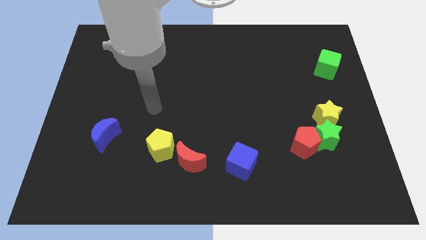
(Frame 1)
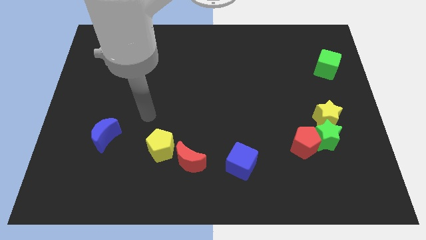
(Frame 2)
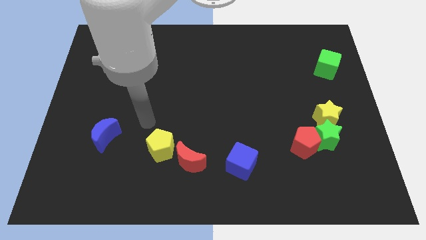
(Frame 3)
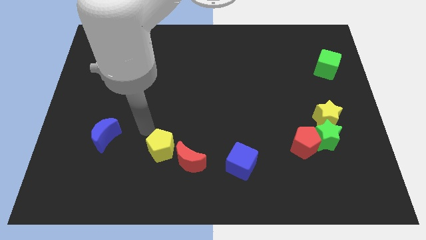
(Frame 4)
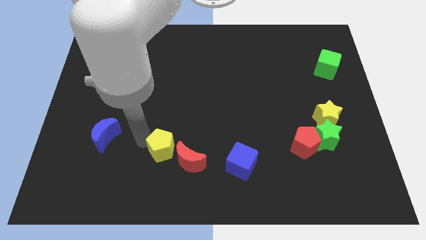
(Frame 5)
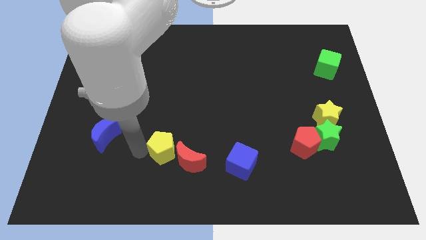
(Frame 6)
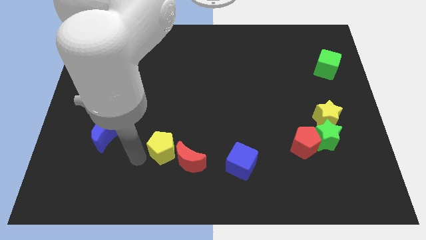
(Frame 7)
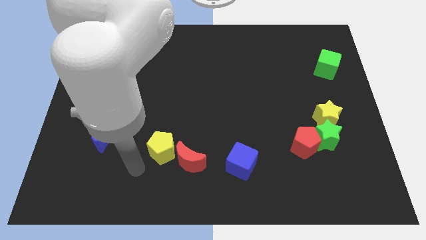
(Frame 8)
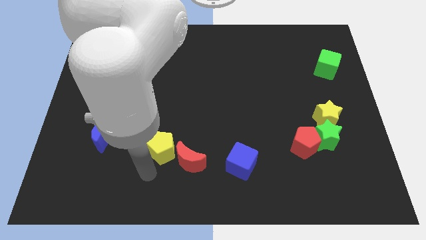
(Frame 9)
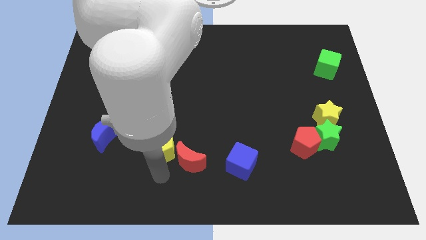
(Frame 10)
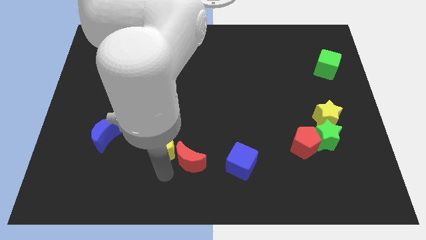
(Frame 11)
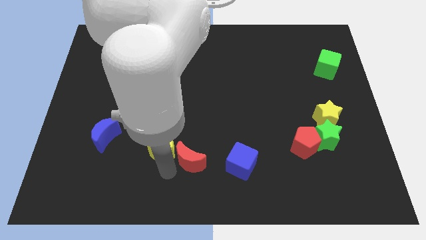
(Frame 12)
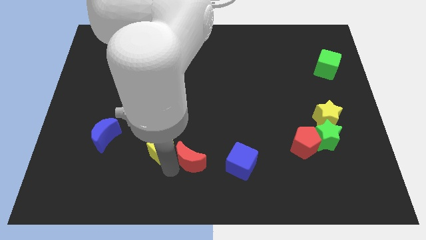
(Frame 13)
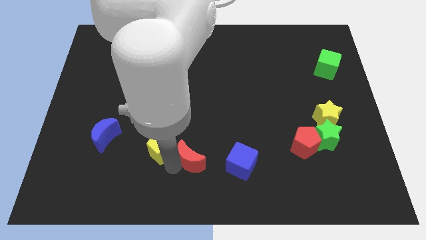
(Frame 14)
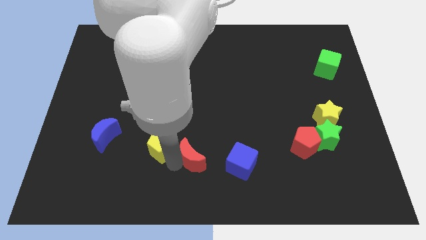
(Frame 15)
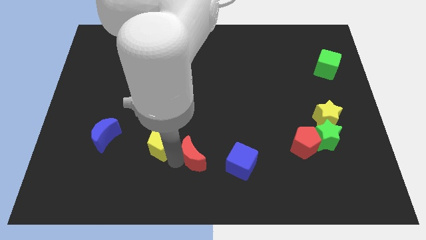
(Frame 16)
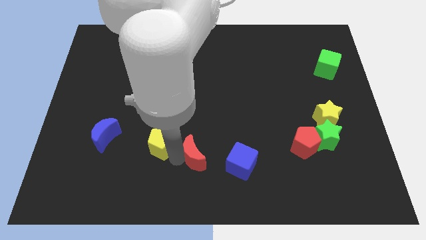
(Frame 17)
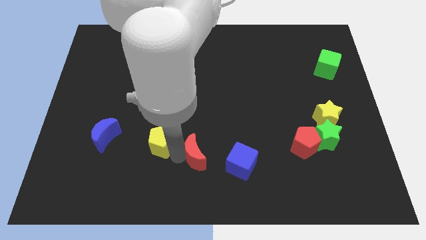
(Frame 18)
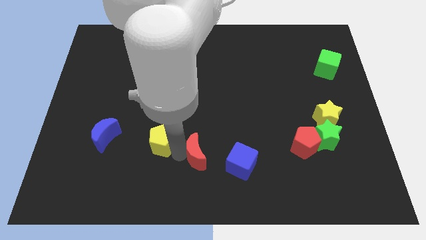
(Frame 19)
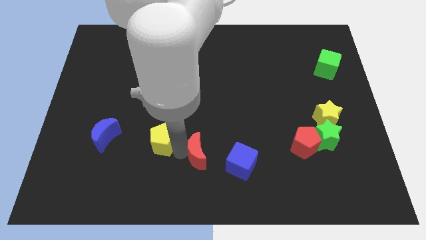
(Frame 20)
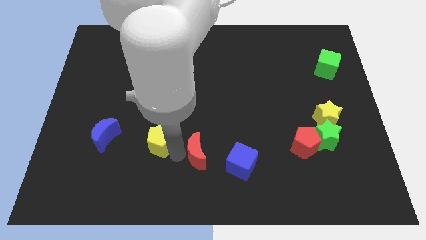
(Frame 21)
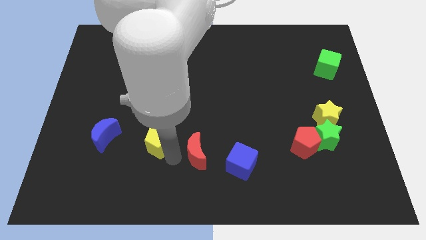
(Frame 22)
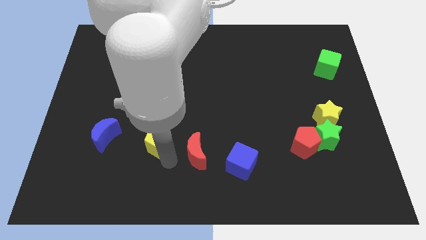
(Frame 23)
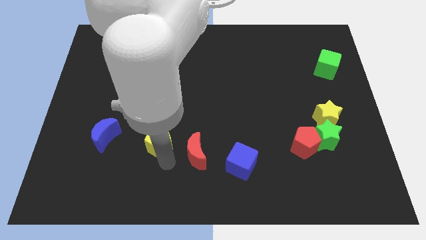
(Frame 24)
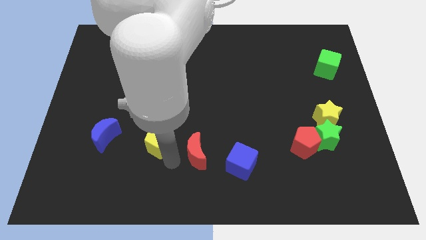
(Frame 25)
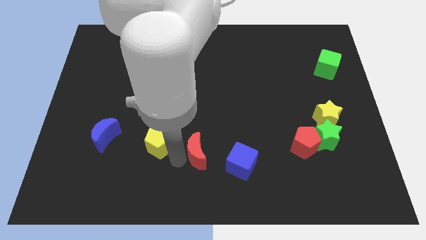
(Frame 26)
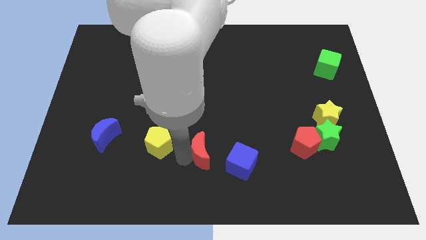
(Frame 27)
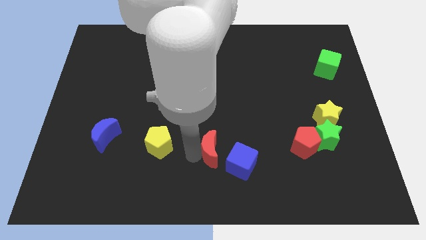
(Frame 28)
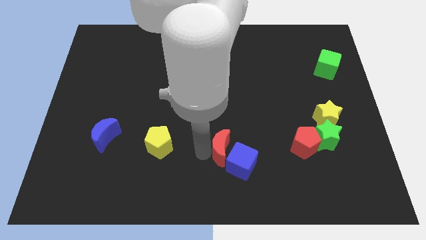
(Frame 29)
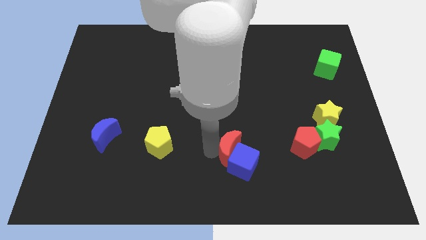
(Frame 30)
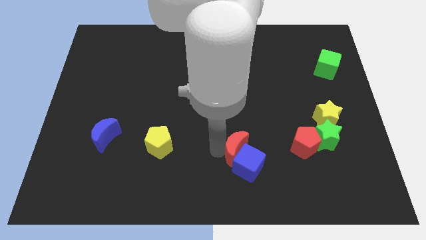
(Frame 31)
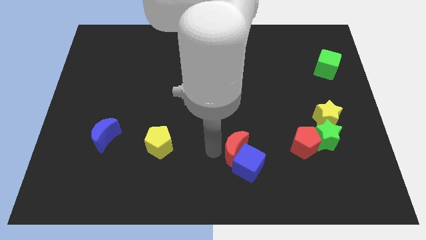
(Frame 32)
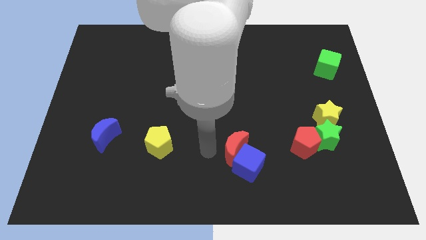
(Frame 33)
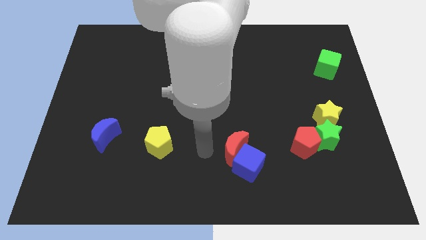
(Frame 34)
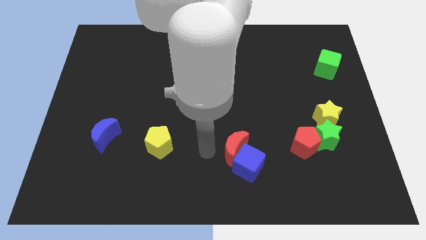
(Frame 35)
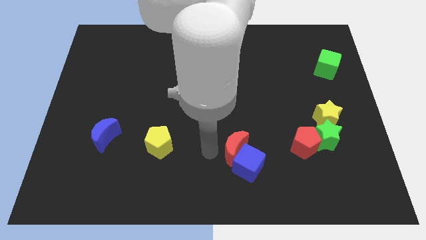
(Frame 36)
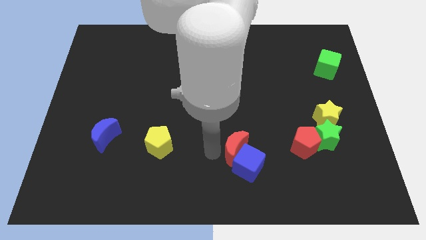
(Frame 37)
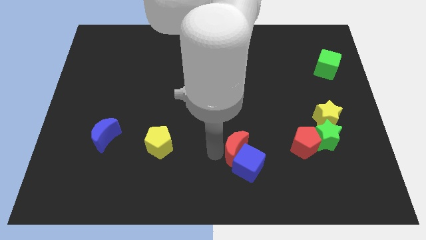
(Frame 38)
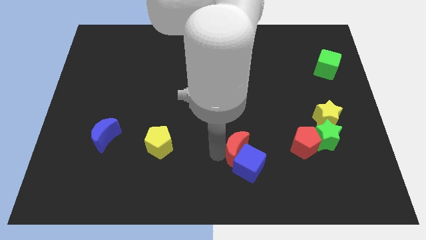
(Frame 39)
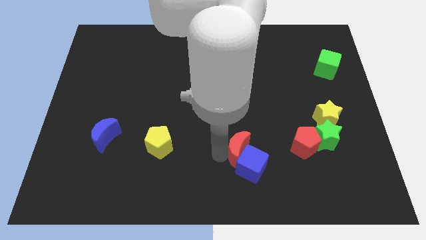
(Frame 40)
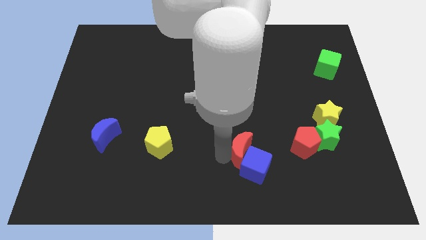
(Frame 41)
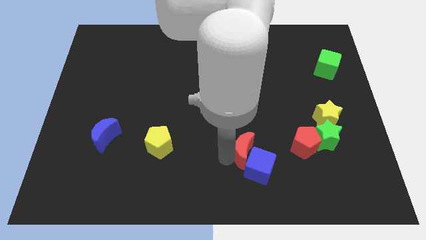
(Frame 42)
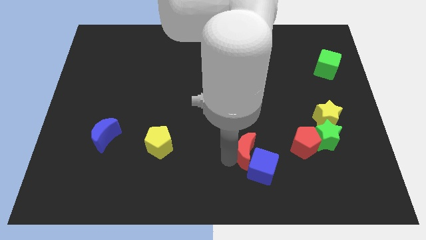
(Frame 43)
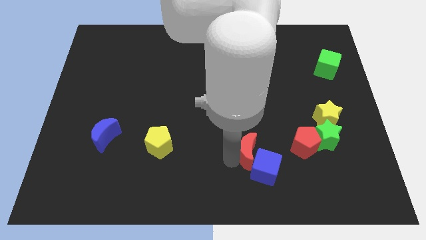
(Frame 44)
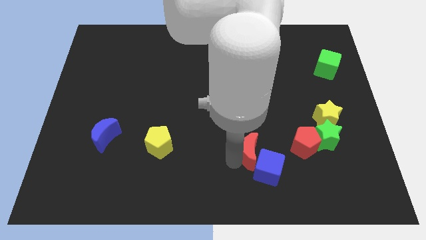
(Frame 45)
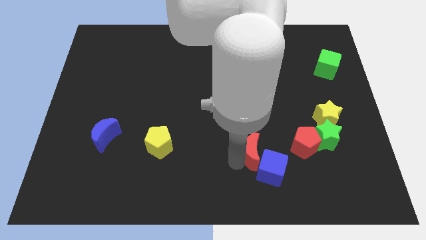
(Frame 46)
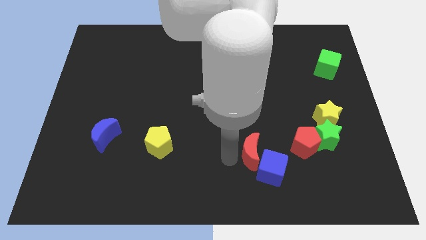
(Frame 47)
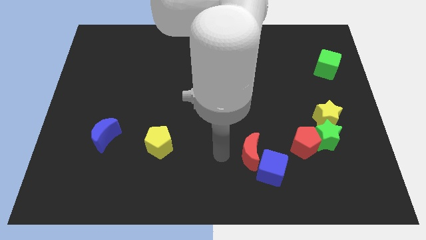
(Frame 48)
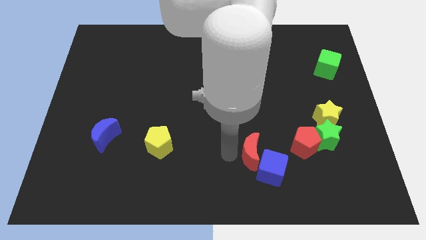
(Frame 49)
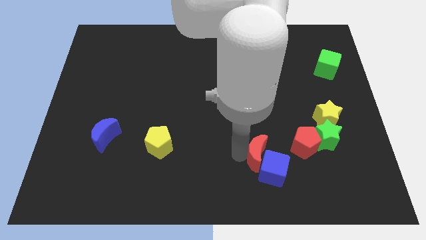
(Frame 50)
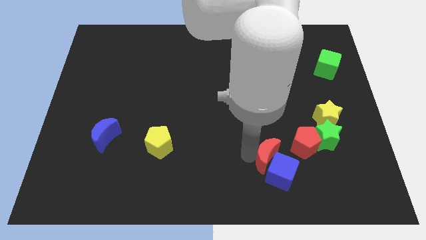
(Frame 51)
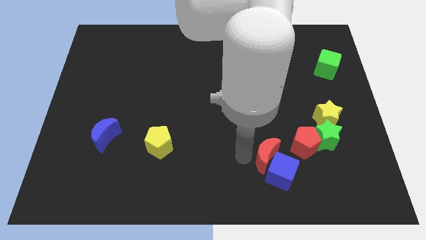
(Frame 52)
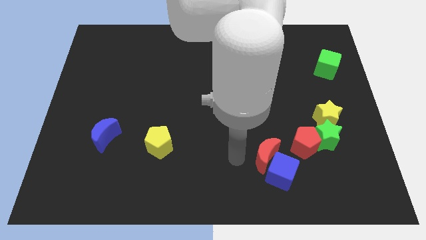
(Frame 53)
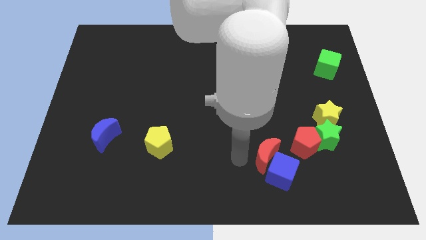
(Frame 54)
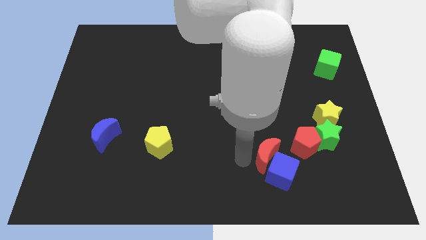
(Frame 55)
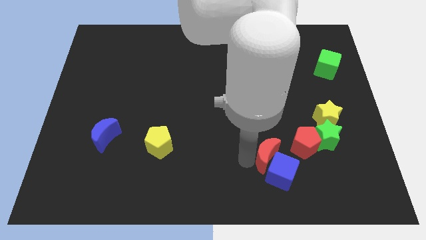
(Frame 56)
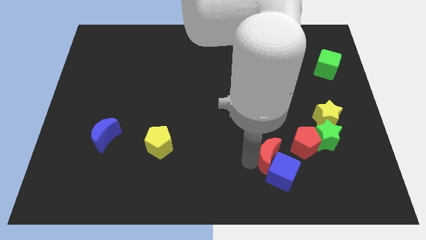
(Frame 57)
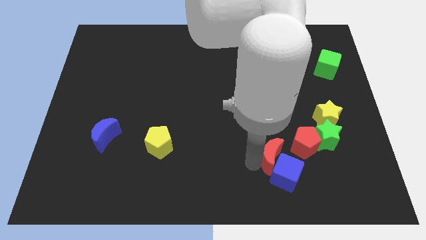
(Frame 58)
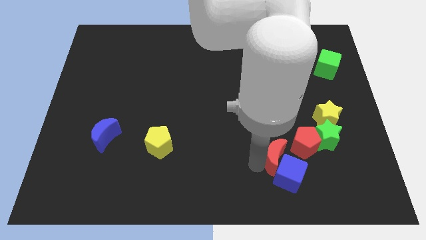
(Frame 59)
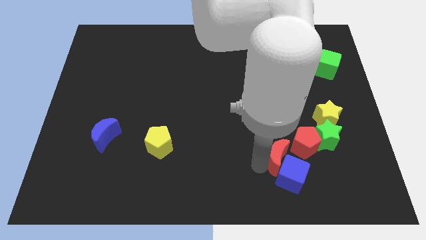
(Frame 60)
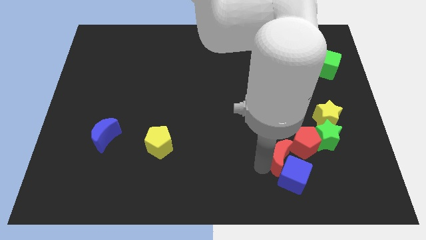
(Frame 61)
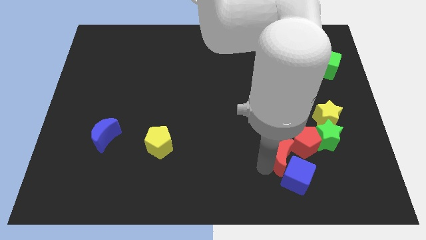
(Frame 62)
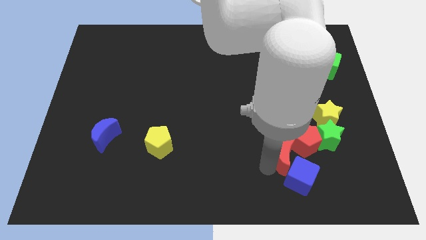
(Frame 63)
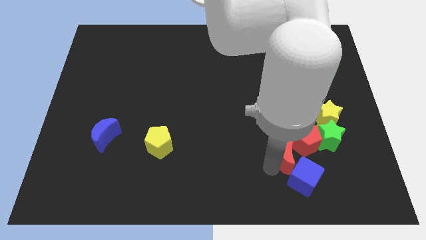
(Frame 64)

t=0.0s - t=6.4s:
move the red moon close to the red pentagon
